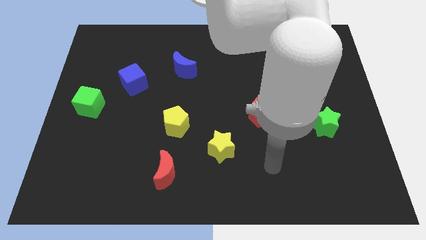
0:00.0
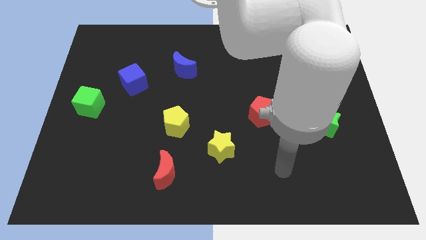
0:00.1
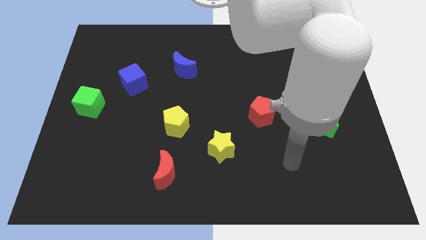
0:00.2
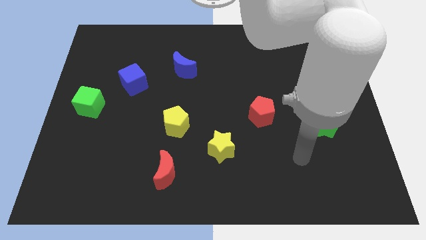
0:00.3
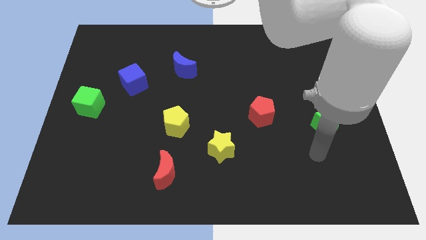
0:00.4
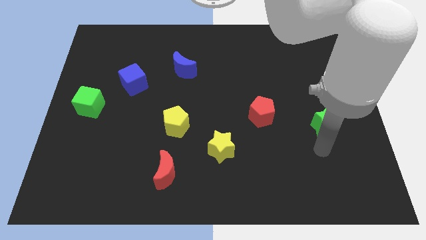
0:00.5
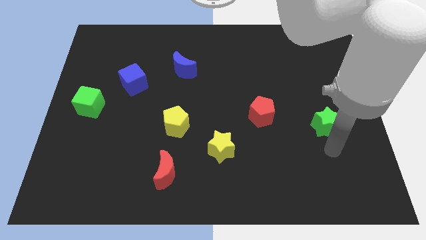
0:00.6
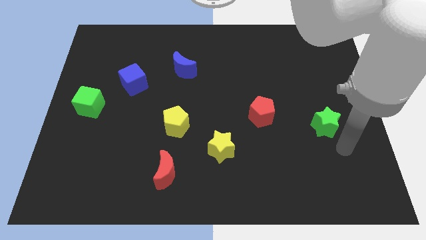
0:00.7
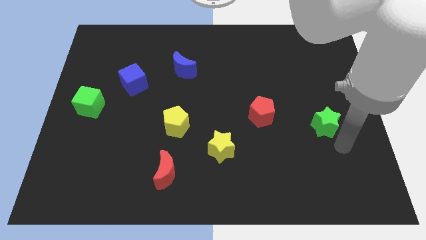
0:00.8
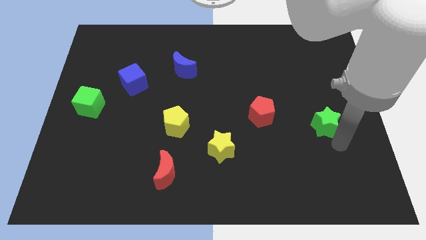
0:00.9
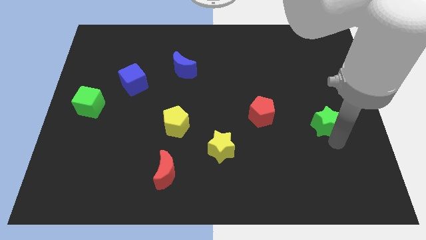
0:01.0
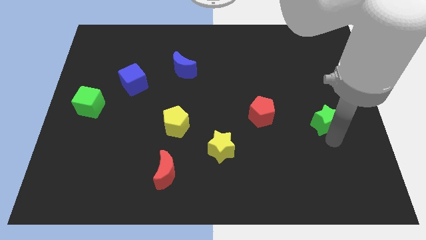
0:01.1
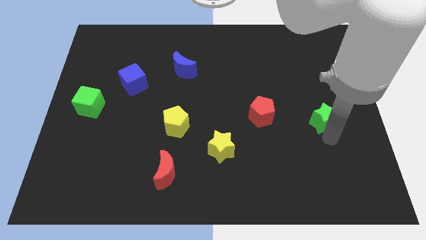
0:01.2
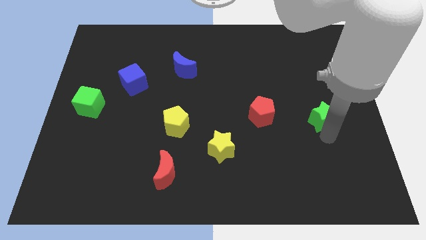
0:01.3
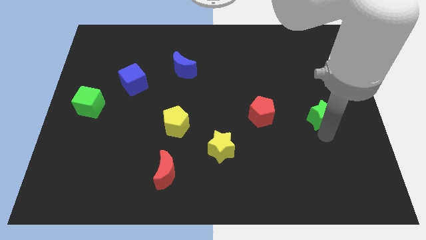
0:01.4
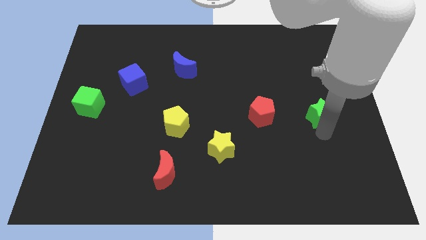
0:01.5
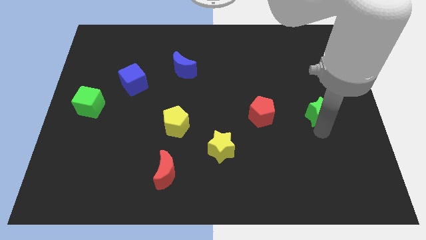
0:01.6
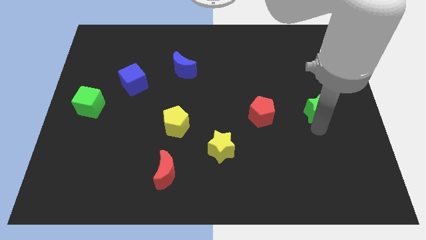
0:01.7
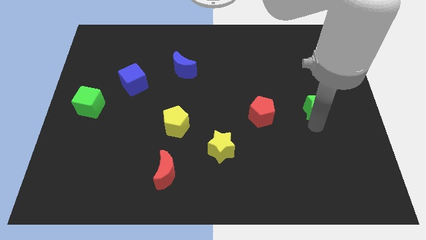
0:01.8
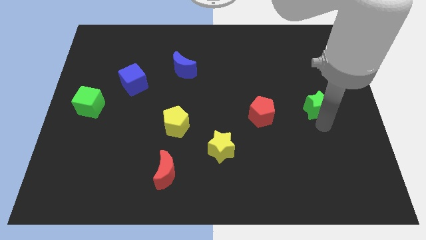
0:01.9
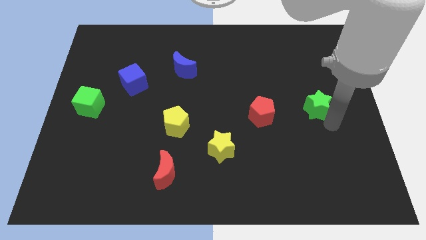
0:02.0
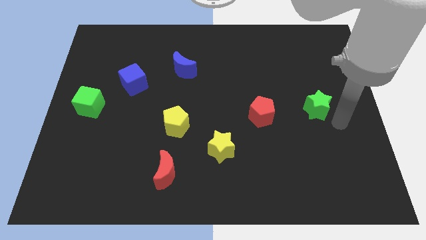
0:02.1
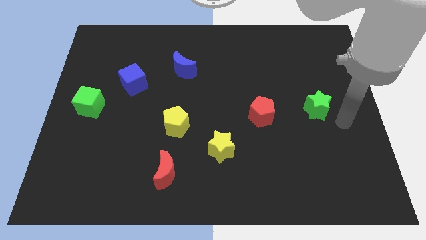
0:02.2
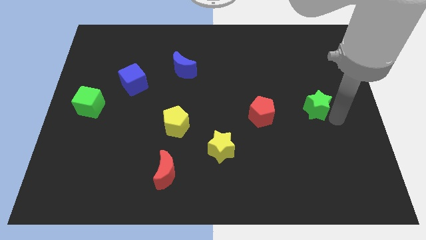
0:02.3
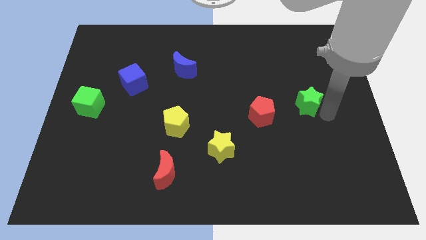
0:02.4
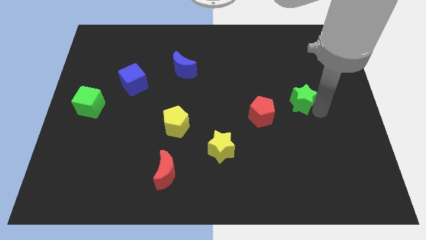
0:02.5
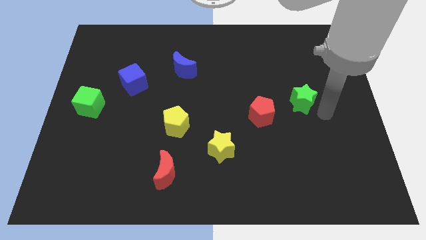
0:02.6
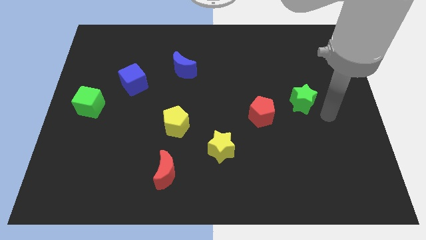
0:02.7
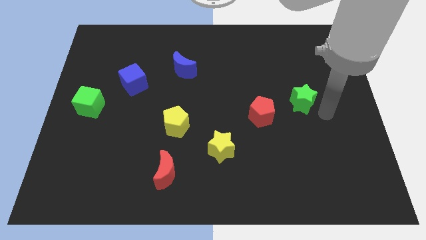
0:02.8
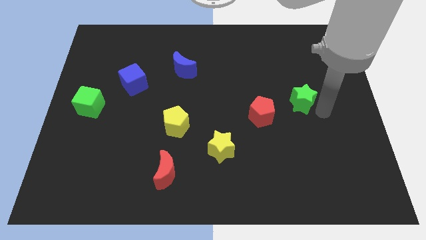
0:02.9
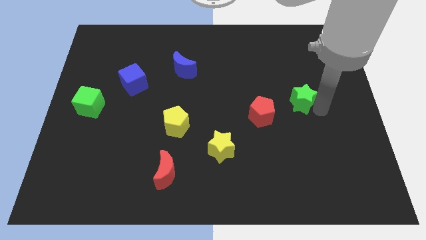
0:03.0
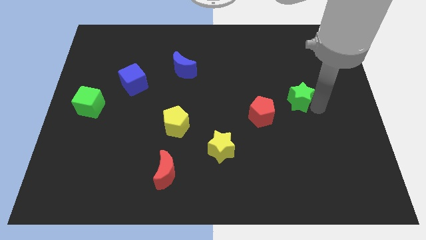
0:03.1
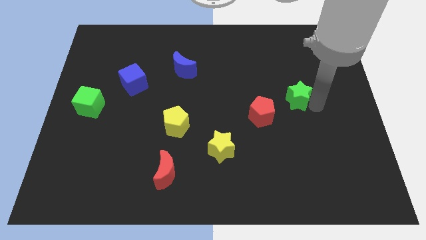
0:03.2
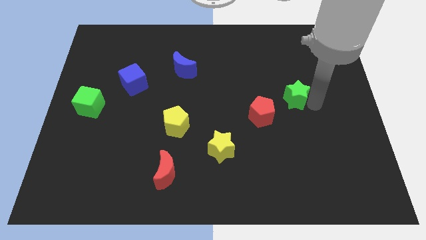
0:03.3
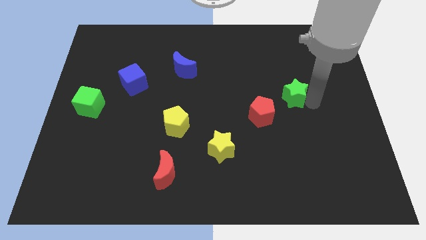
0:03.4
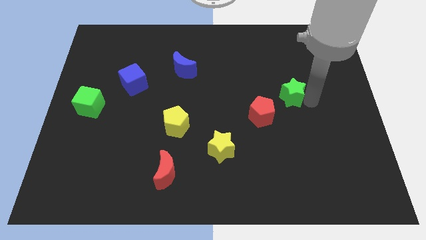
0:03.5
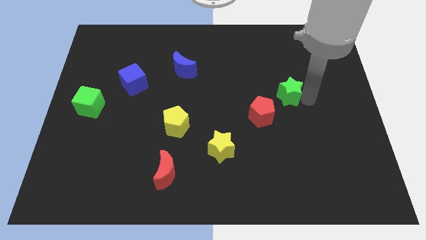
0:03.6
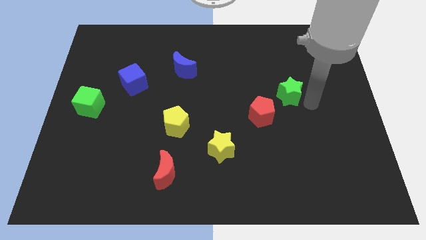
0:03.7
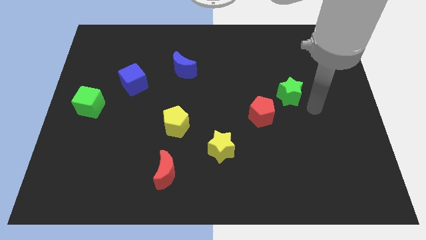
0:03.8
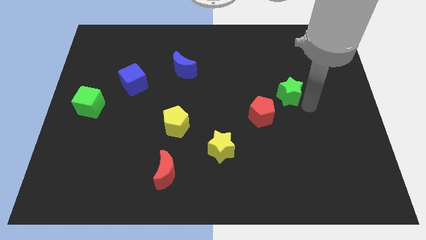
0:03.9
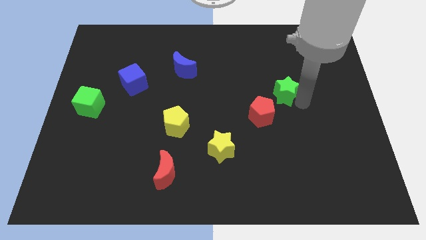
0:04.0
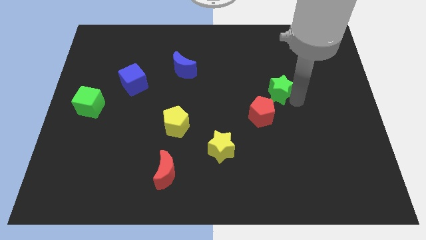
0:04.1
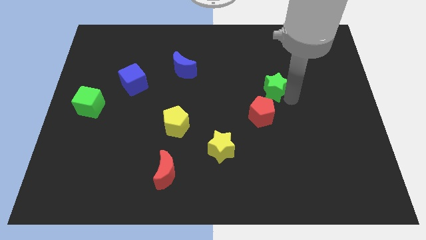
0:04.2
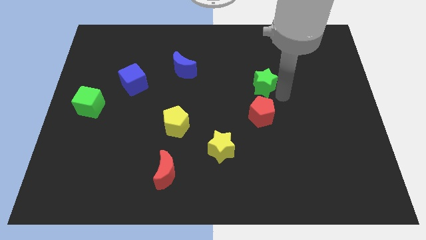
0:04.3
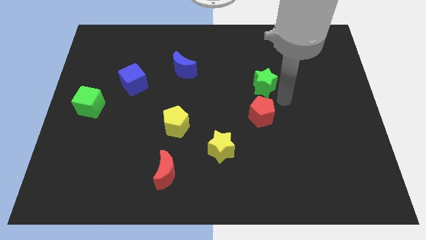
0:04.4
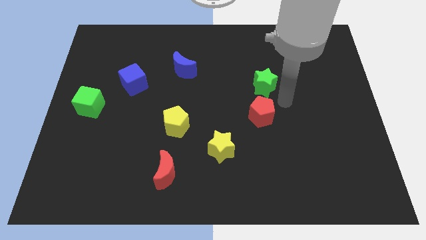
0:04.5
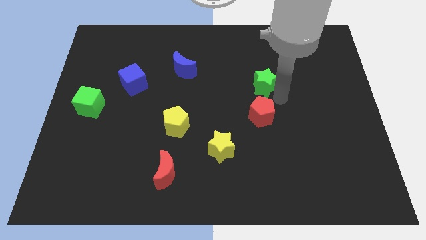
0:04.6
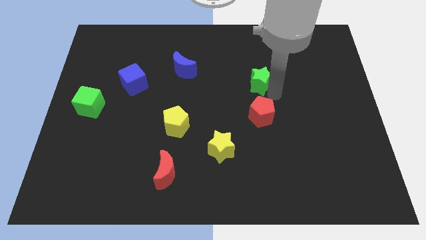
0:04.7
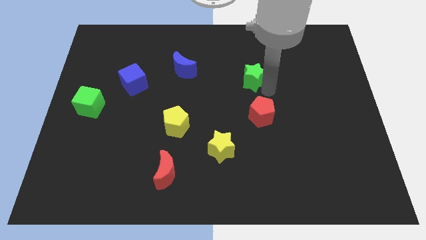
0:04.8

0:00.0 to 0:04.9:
move the green star upwards and to the left

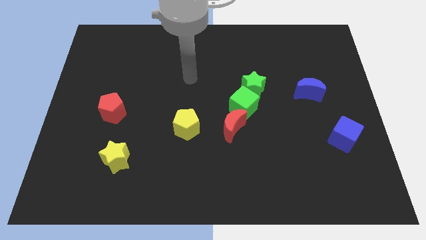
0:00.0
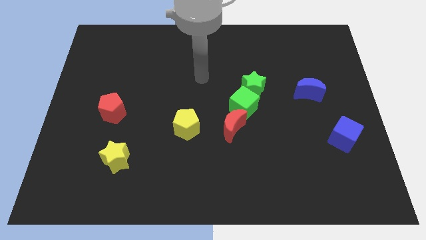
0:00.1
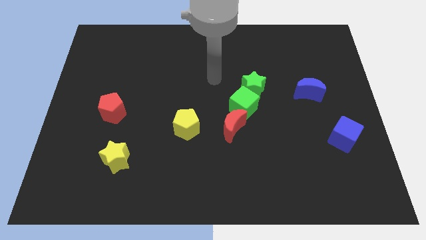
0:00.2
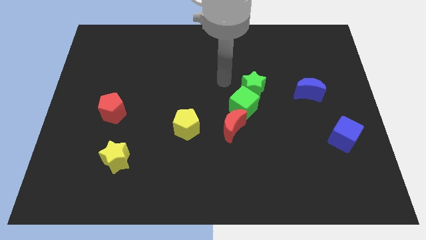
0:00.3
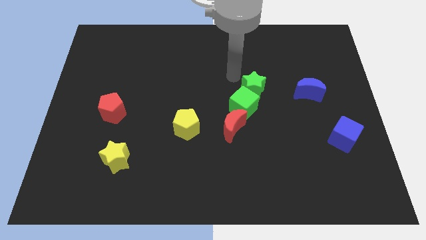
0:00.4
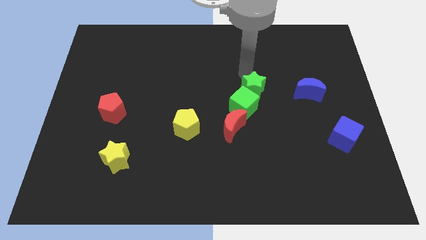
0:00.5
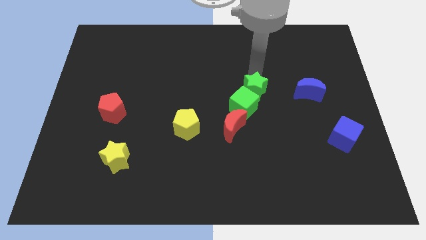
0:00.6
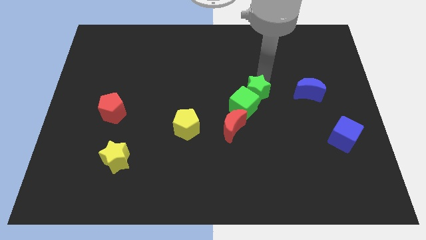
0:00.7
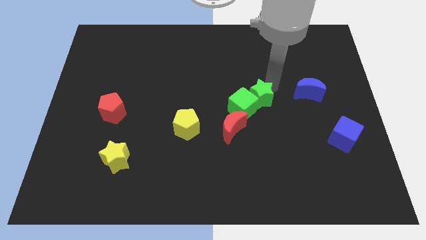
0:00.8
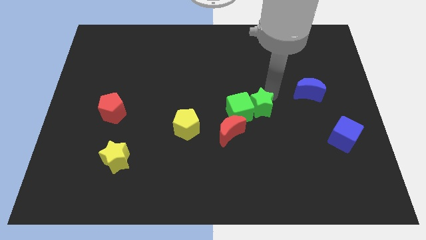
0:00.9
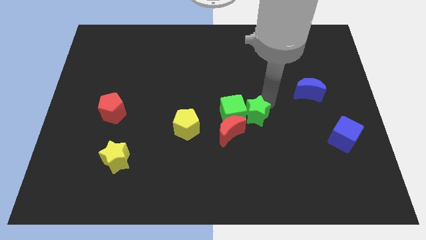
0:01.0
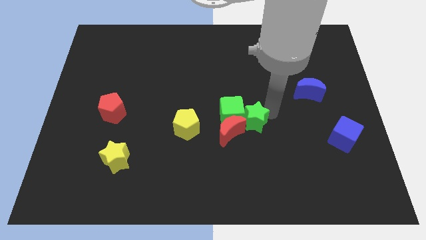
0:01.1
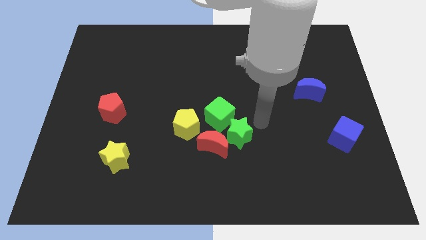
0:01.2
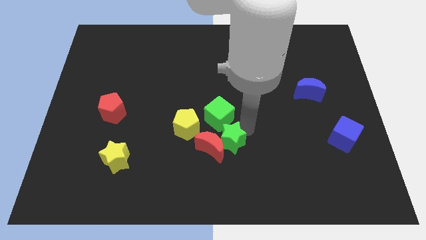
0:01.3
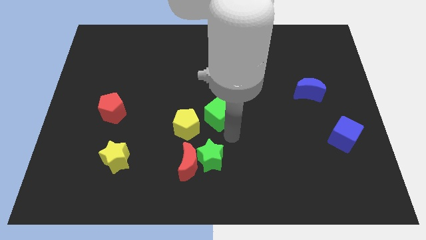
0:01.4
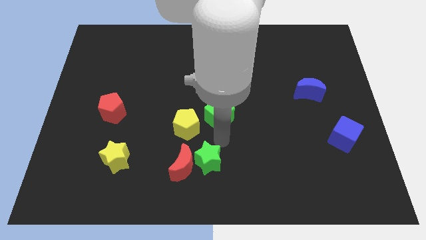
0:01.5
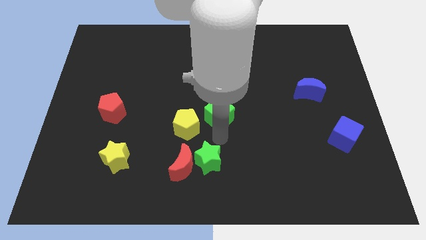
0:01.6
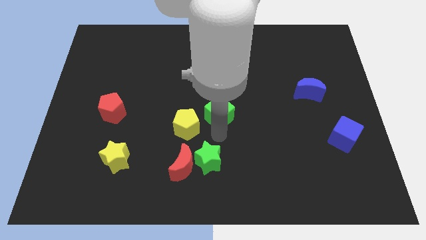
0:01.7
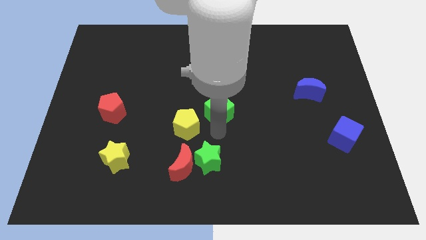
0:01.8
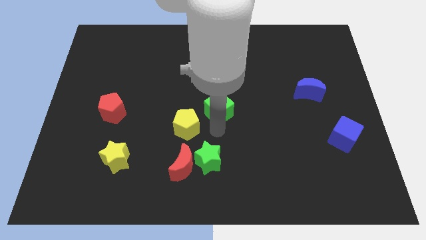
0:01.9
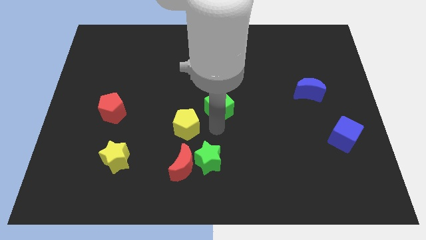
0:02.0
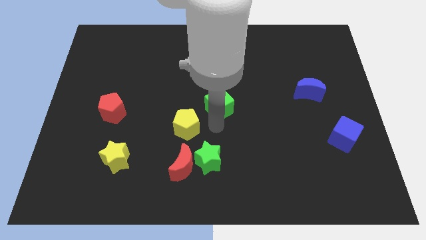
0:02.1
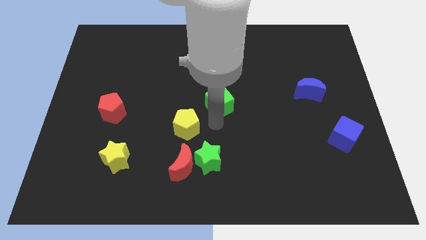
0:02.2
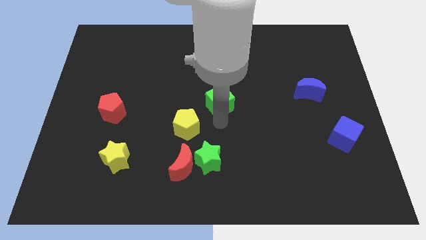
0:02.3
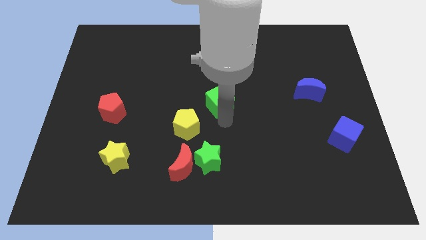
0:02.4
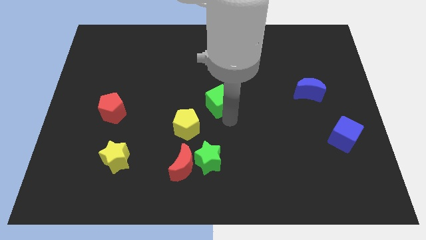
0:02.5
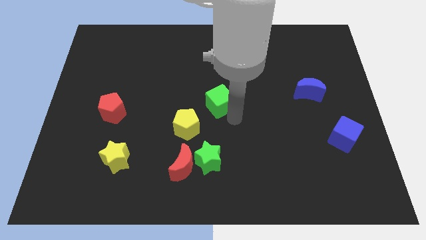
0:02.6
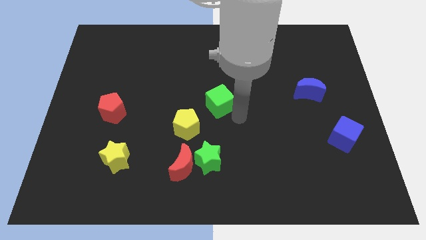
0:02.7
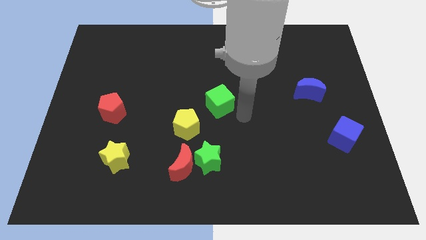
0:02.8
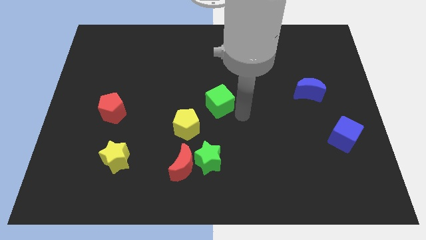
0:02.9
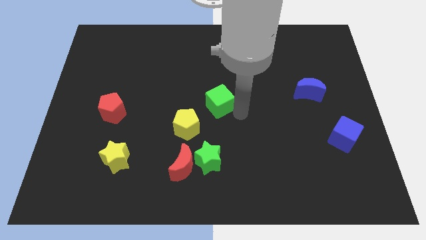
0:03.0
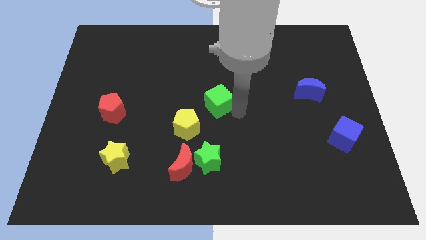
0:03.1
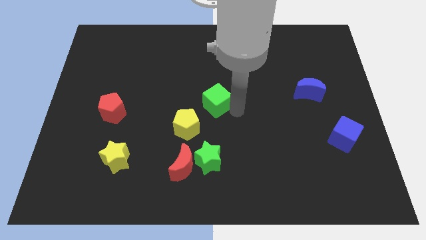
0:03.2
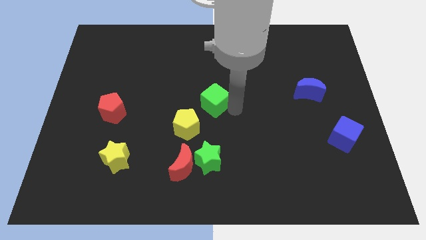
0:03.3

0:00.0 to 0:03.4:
slide the green cube to the left slightly
